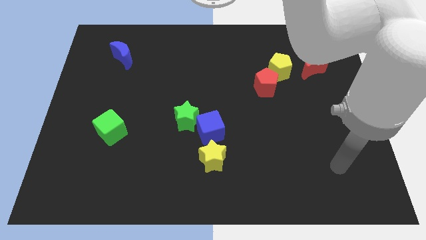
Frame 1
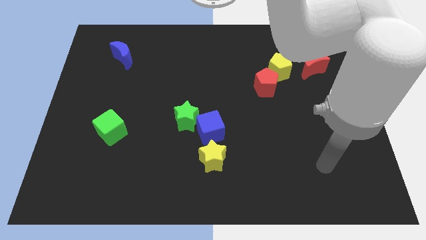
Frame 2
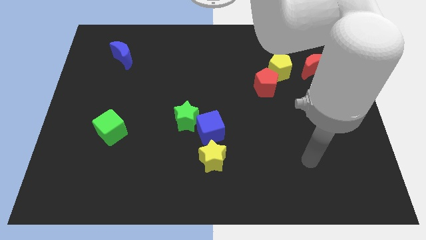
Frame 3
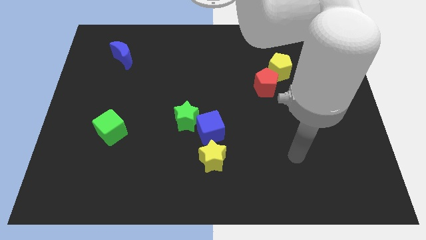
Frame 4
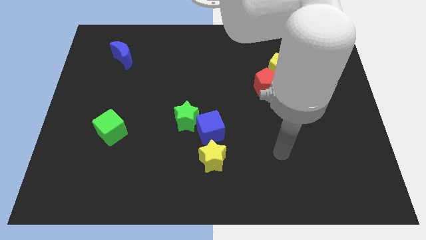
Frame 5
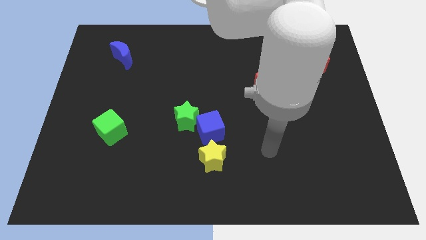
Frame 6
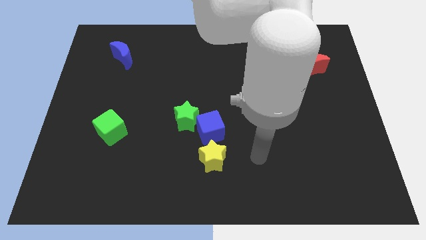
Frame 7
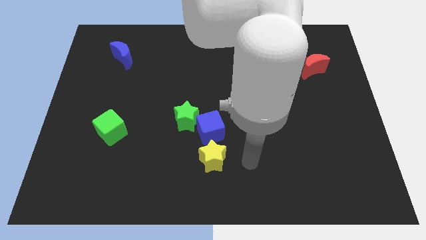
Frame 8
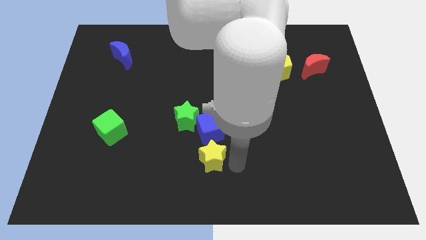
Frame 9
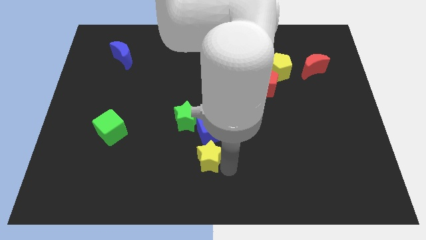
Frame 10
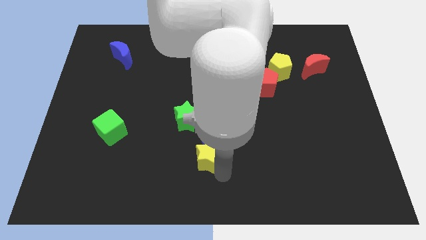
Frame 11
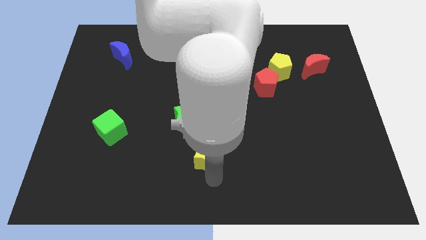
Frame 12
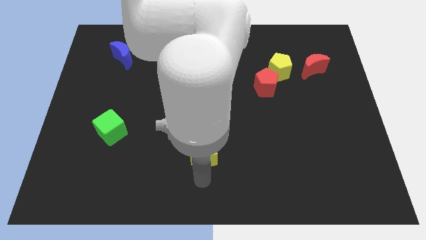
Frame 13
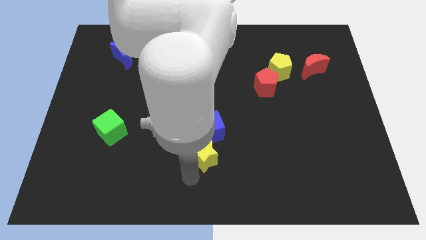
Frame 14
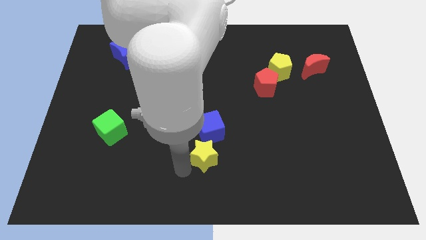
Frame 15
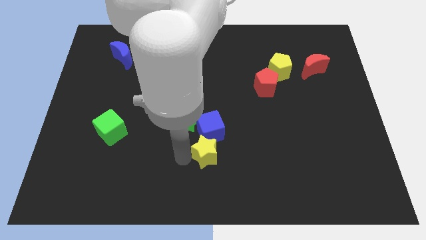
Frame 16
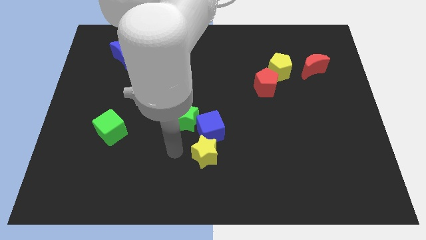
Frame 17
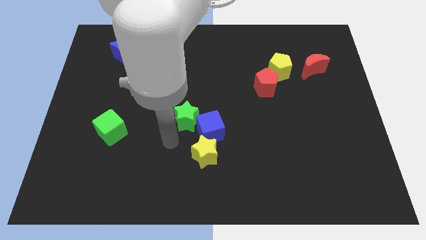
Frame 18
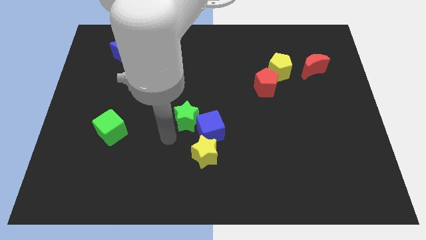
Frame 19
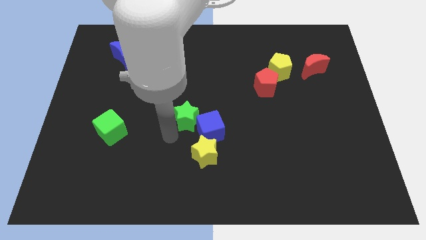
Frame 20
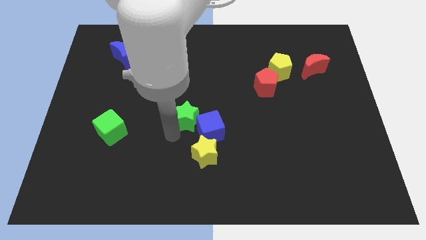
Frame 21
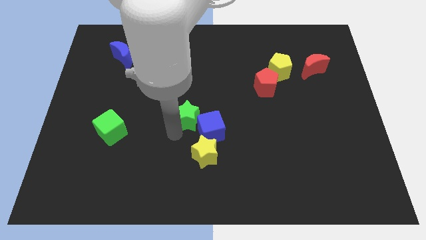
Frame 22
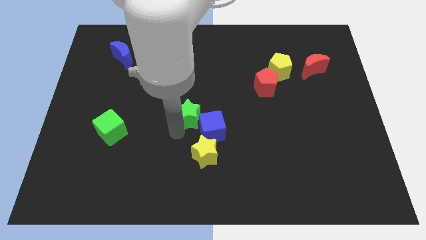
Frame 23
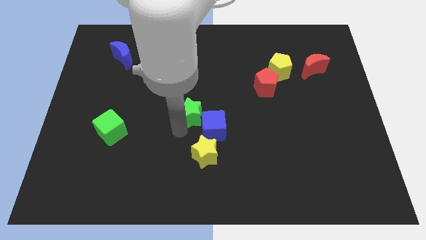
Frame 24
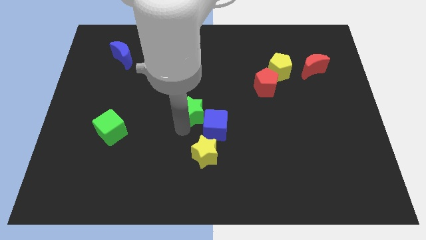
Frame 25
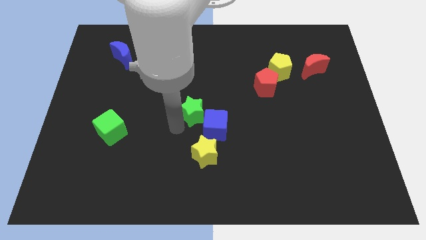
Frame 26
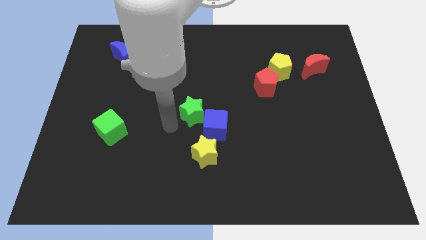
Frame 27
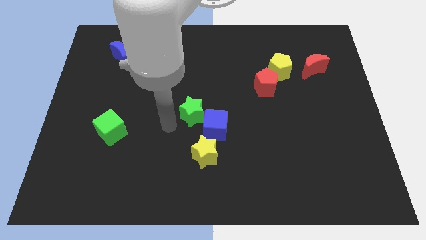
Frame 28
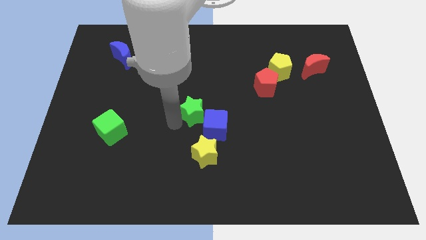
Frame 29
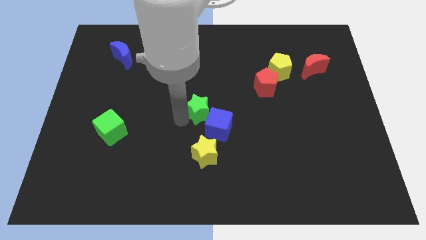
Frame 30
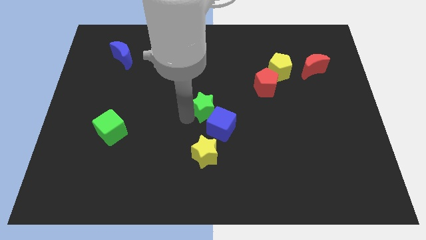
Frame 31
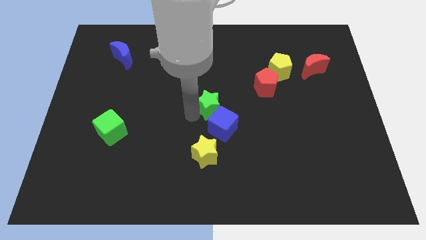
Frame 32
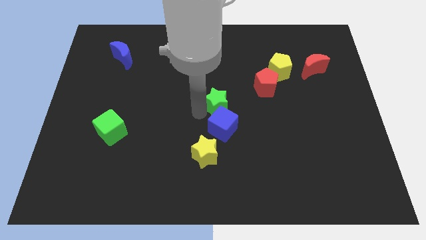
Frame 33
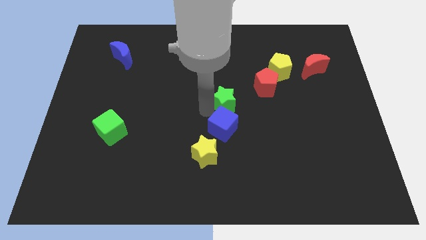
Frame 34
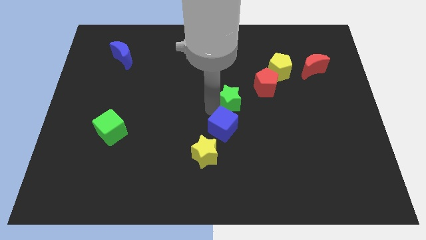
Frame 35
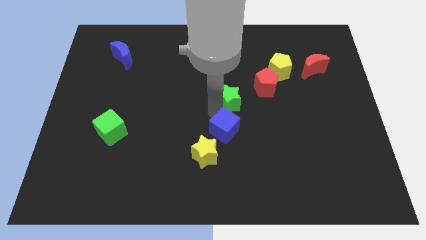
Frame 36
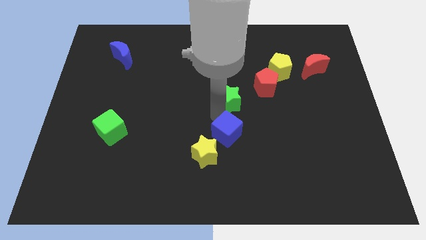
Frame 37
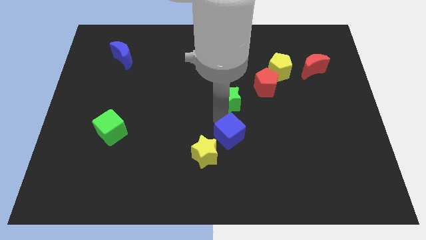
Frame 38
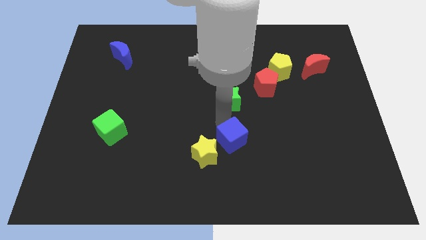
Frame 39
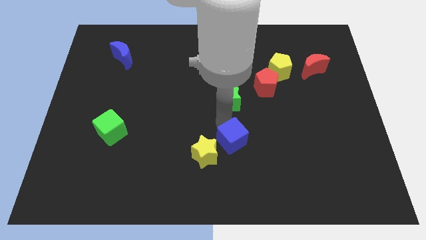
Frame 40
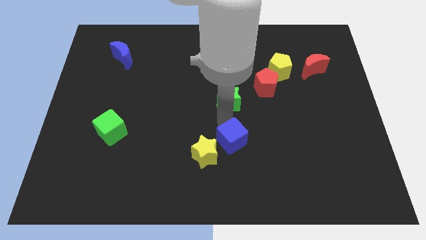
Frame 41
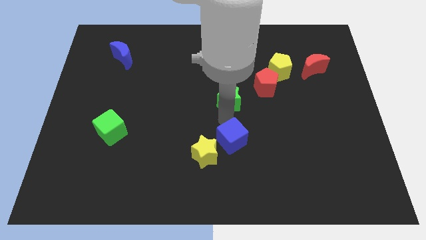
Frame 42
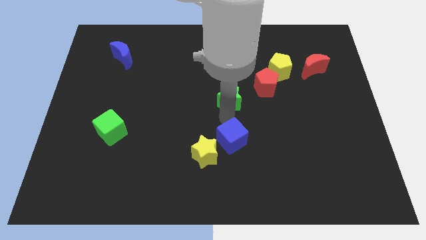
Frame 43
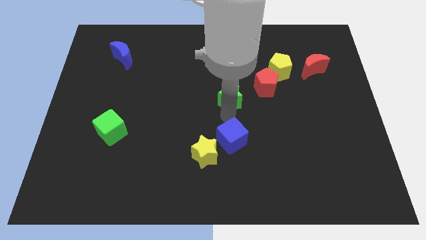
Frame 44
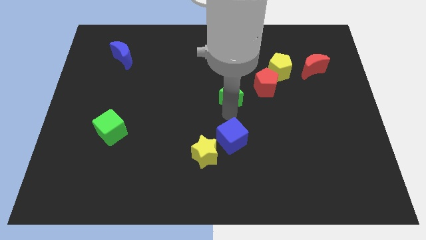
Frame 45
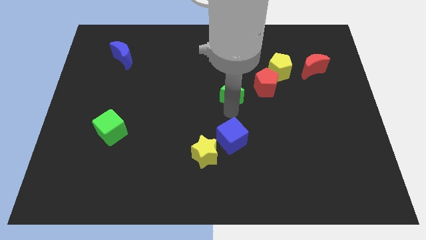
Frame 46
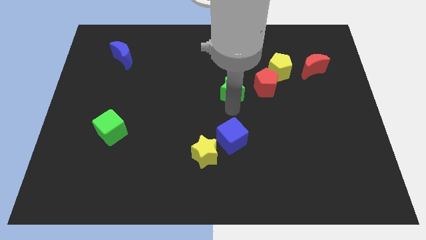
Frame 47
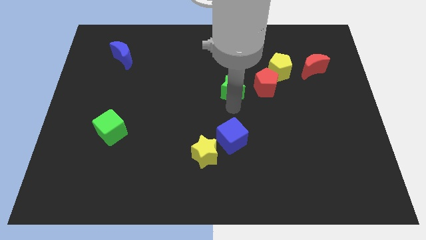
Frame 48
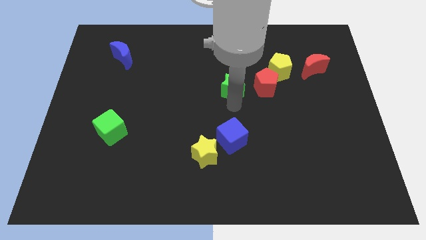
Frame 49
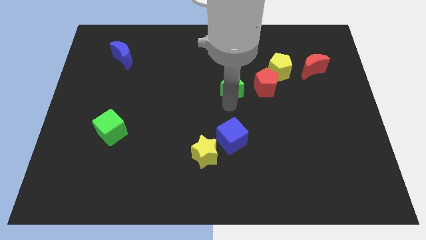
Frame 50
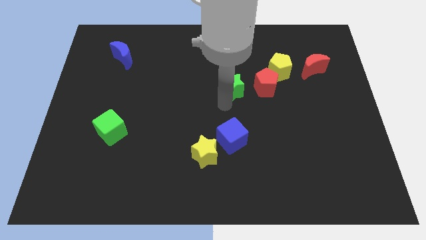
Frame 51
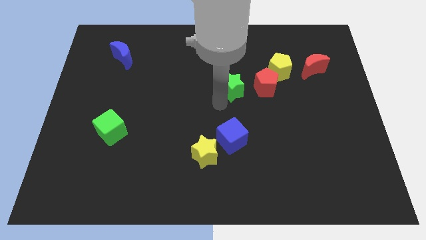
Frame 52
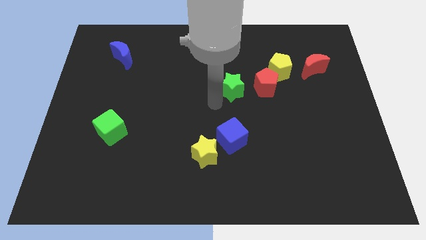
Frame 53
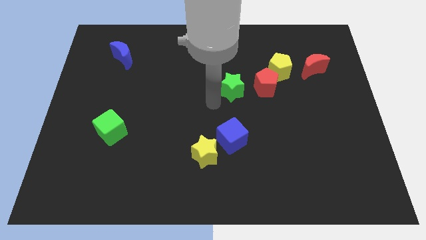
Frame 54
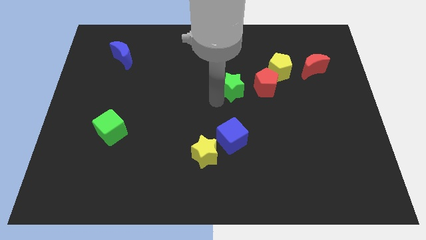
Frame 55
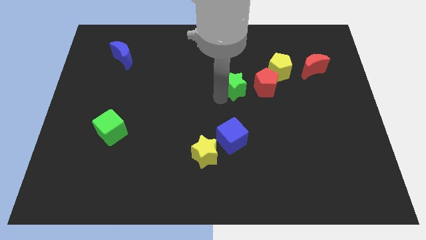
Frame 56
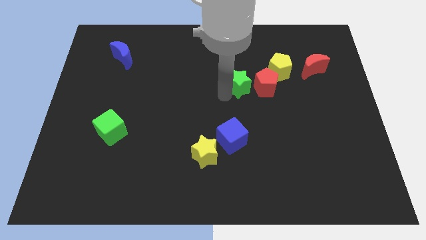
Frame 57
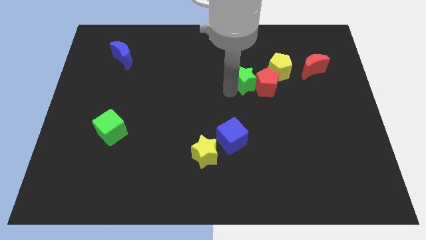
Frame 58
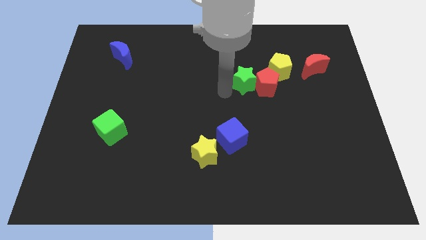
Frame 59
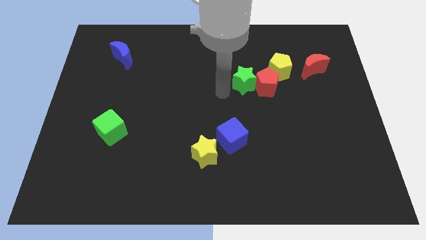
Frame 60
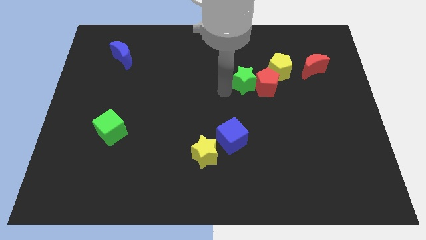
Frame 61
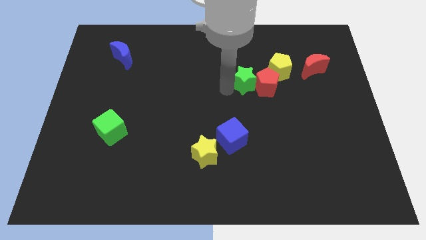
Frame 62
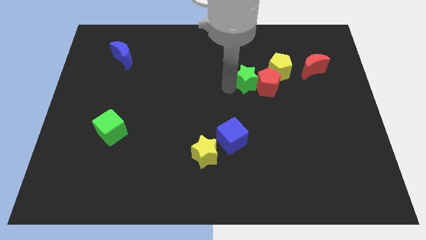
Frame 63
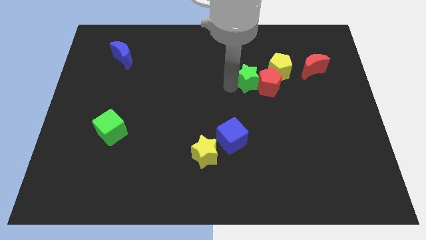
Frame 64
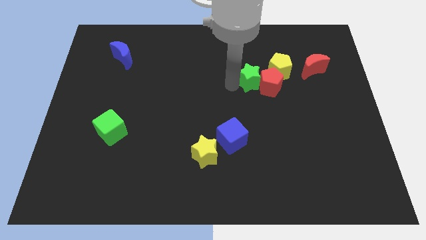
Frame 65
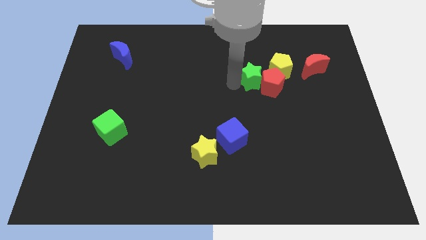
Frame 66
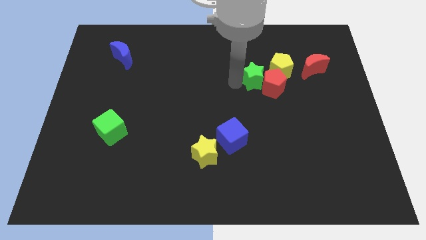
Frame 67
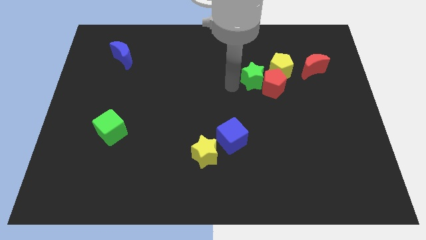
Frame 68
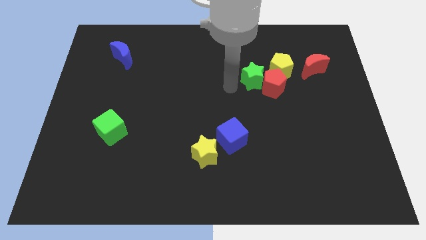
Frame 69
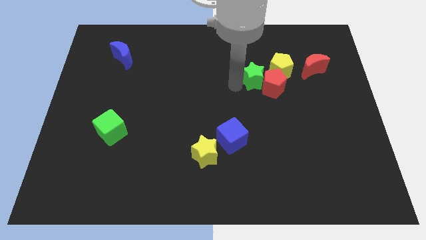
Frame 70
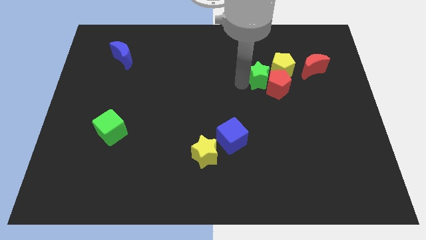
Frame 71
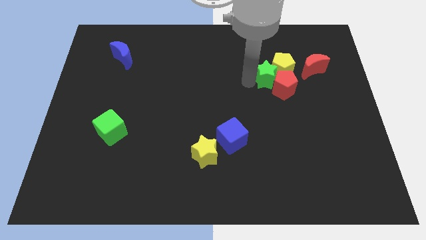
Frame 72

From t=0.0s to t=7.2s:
push the green star next to the yellow pentagon

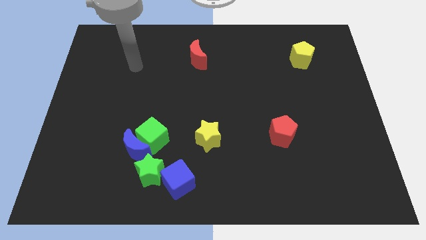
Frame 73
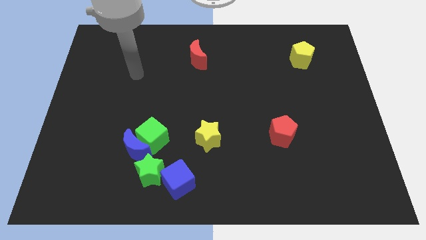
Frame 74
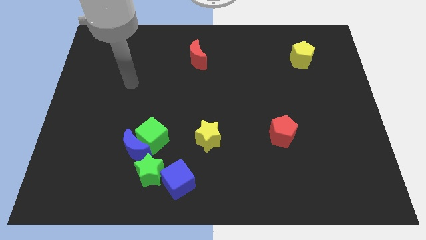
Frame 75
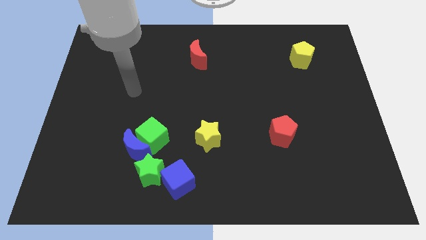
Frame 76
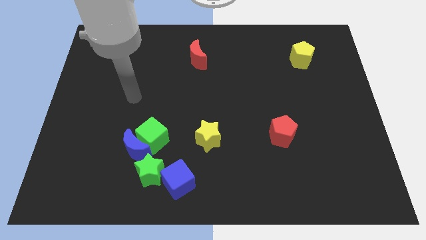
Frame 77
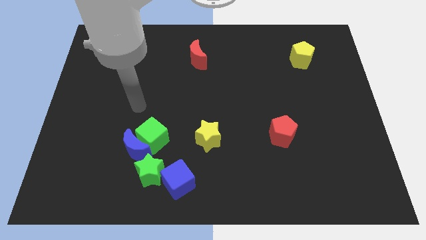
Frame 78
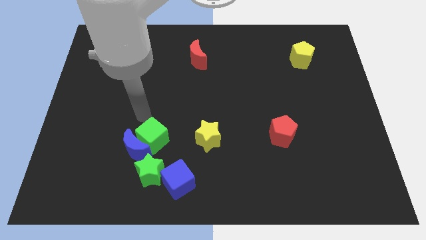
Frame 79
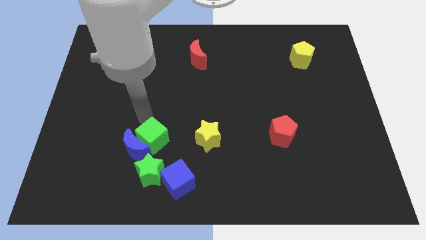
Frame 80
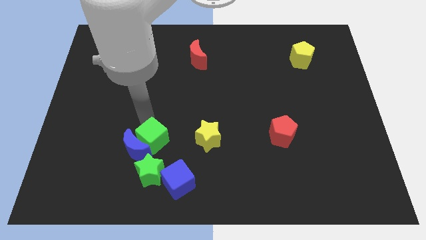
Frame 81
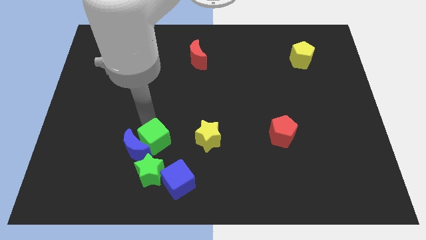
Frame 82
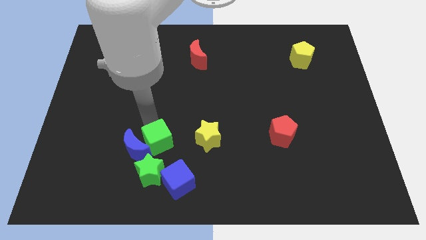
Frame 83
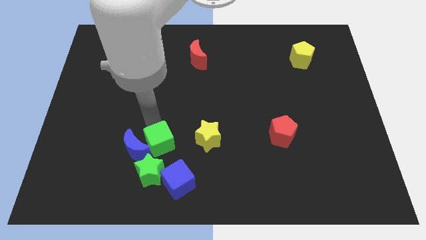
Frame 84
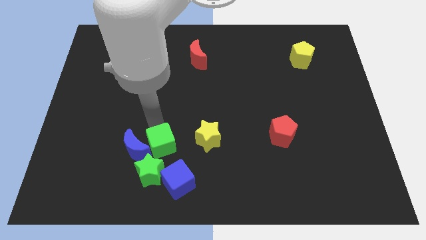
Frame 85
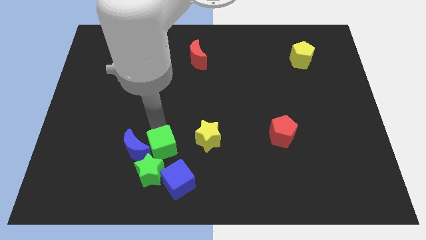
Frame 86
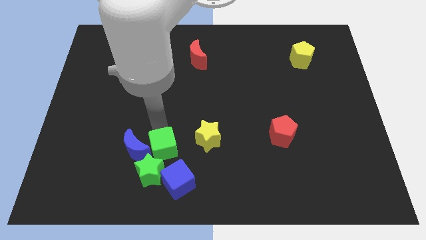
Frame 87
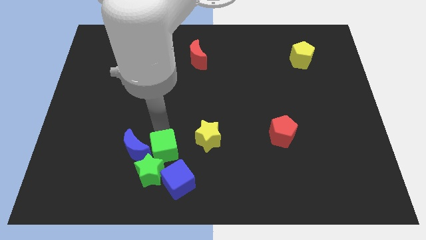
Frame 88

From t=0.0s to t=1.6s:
slide the green cube close to the green star
